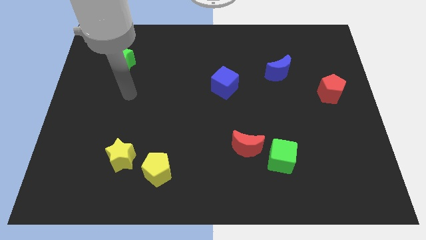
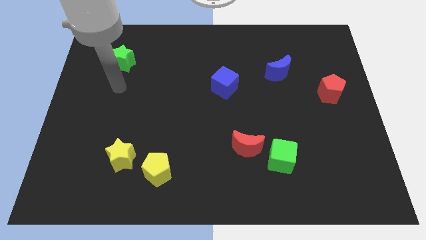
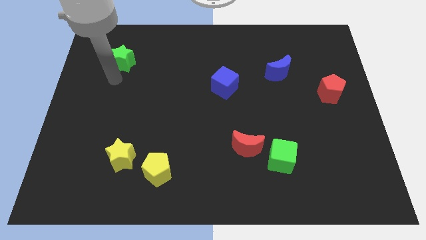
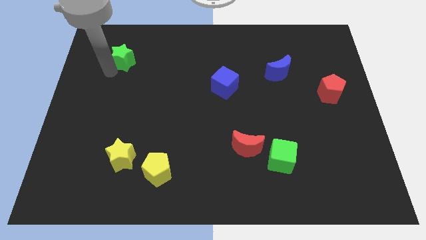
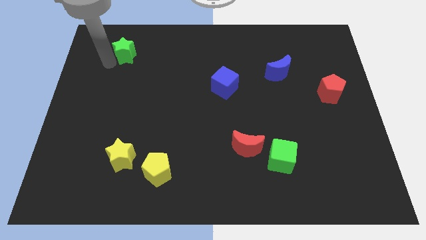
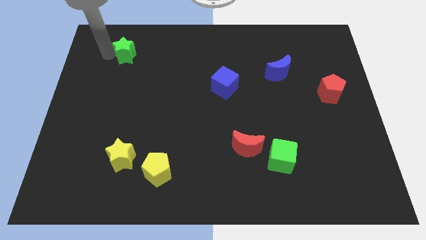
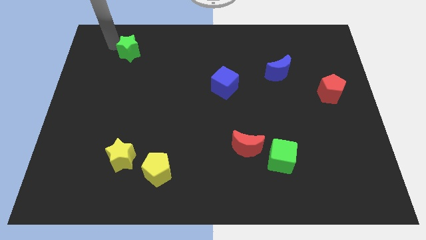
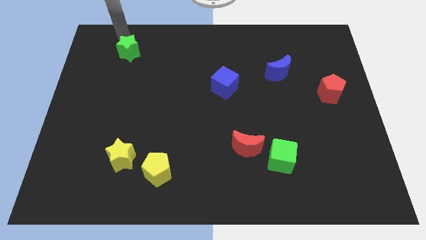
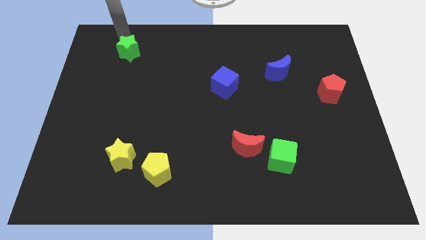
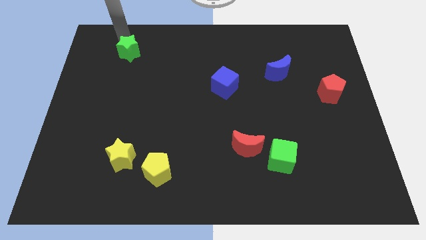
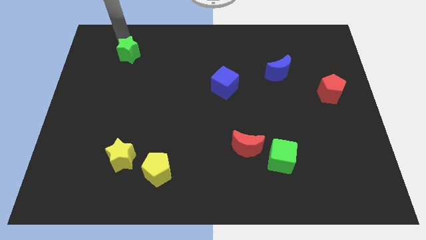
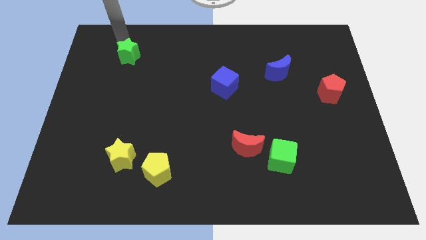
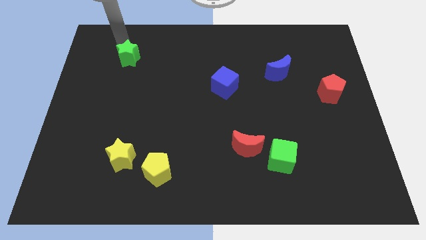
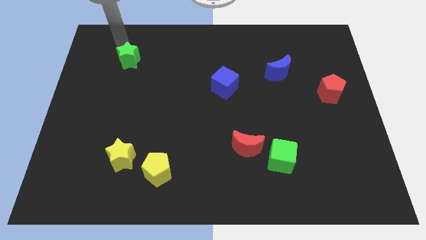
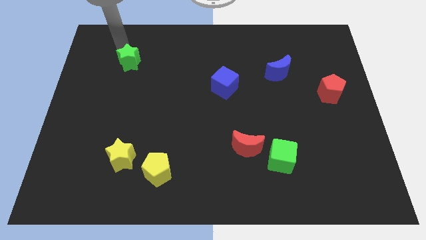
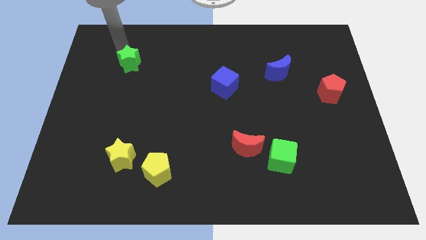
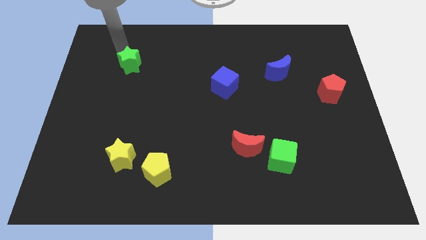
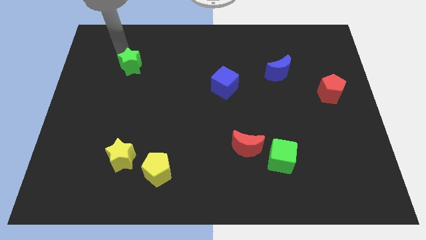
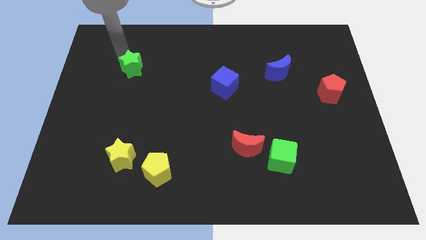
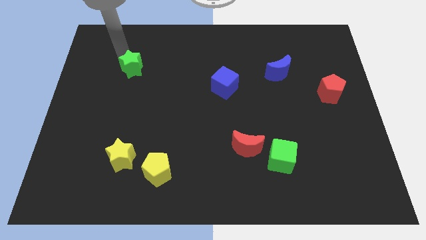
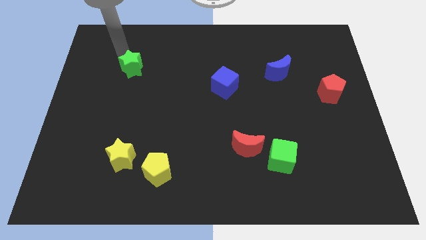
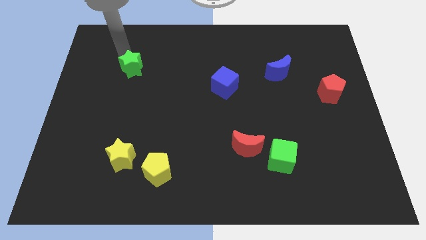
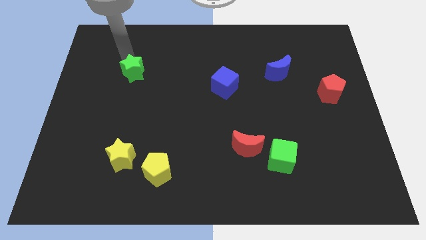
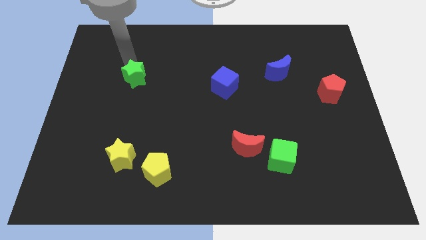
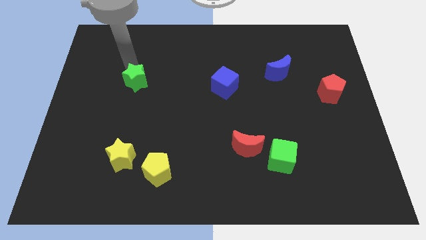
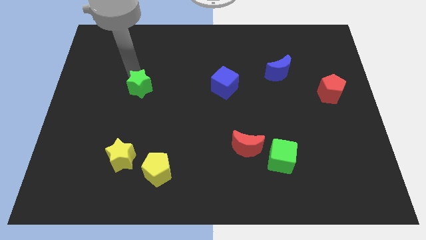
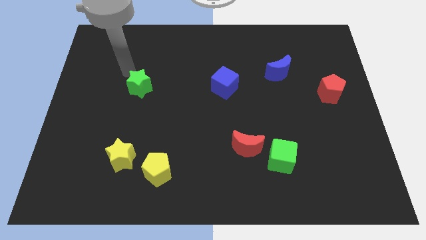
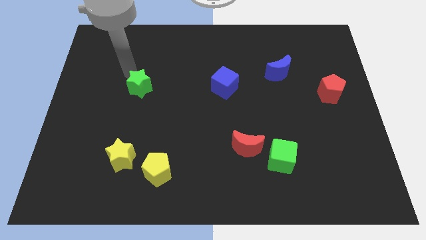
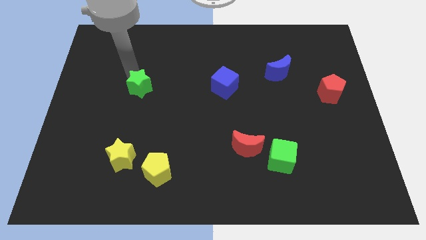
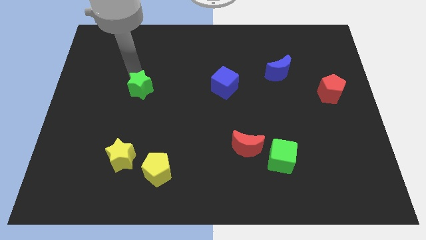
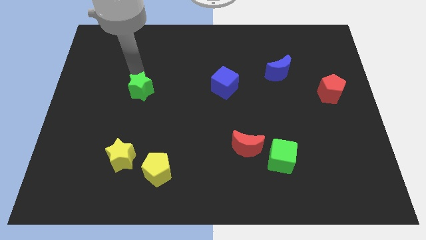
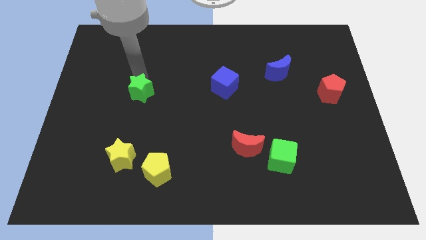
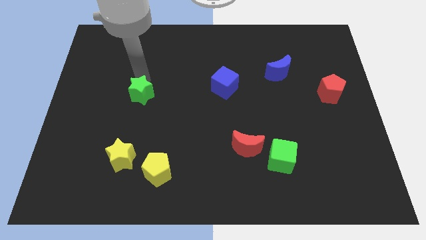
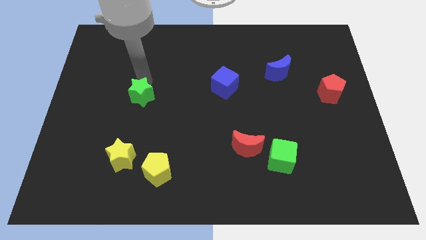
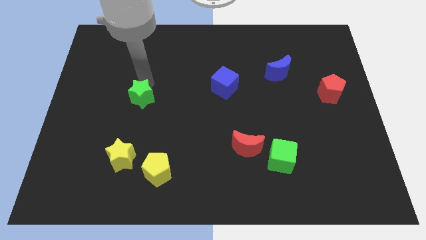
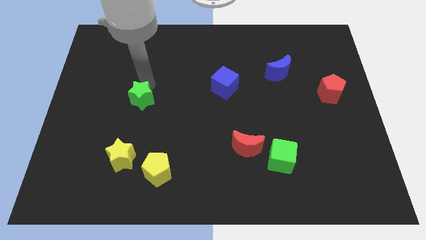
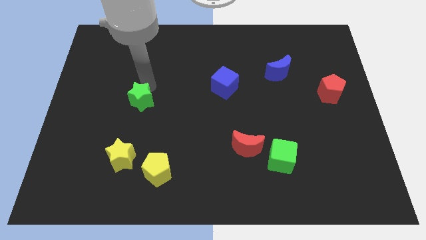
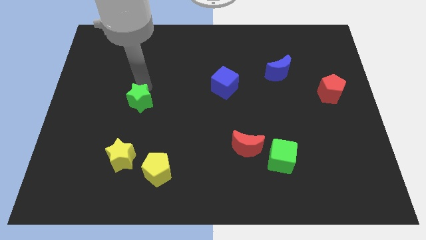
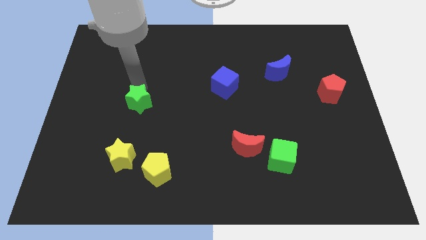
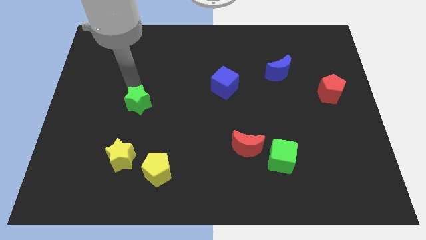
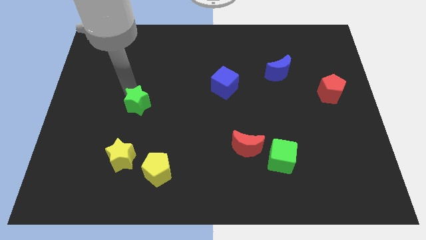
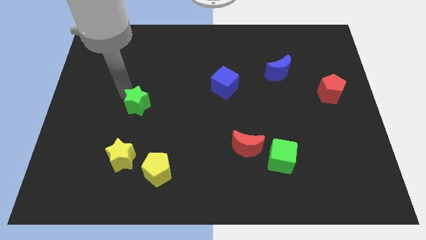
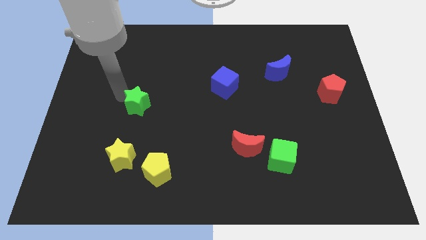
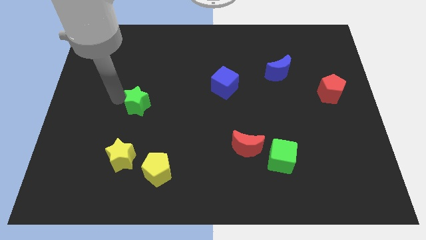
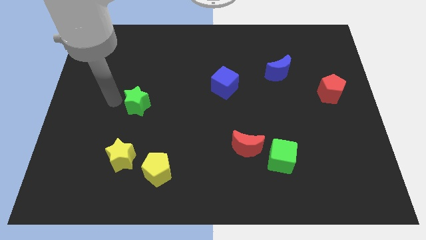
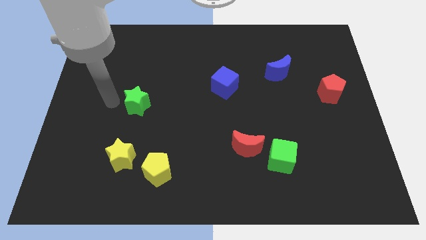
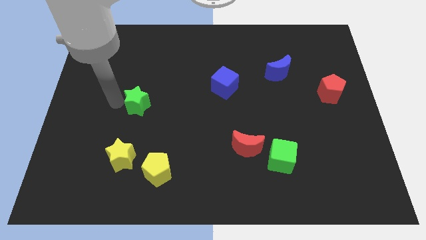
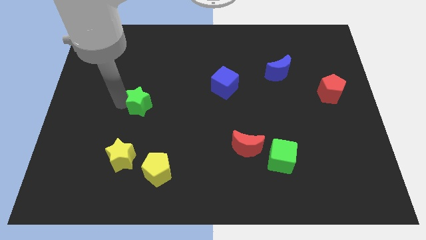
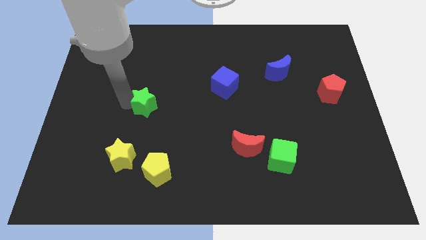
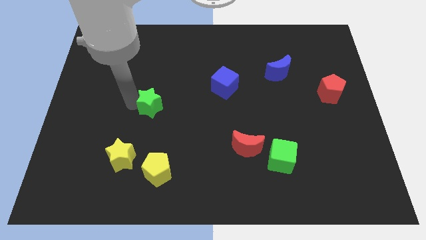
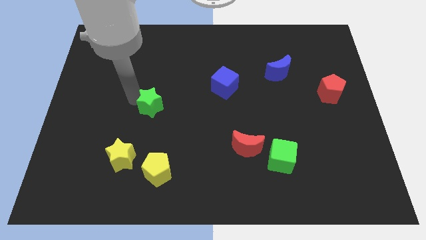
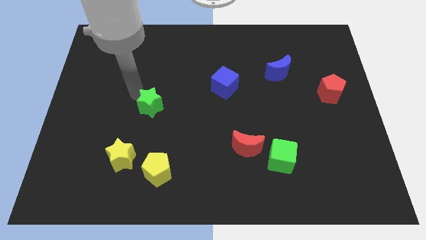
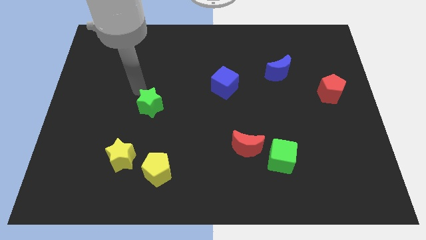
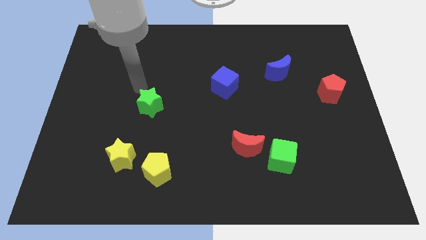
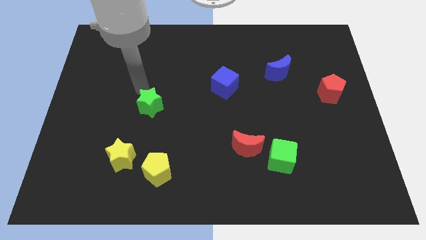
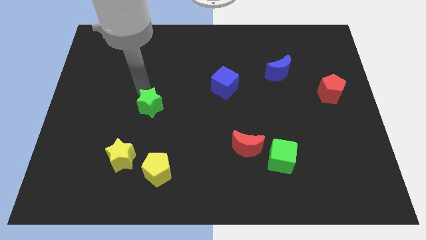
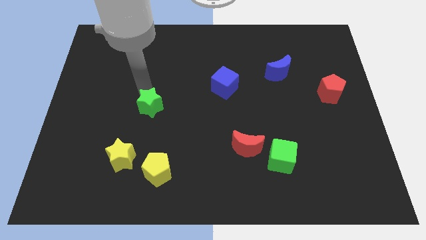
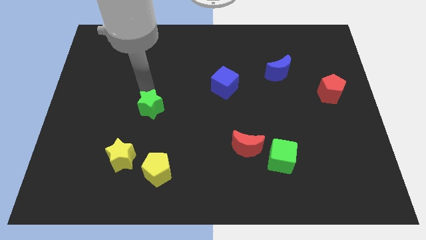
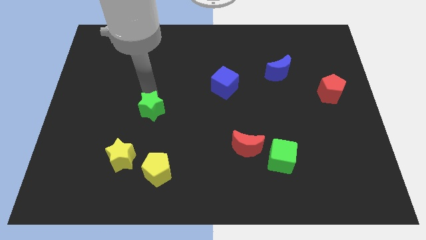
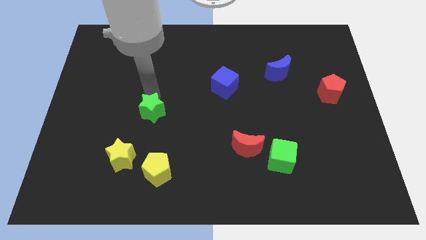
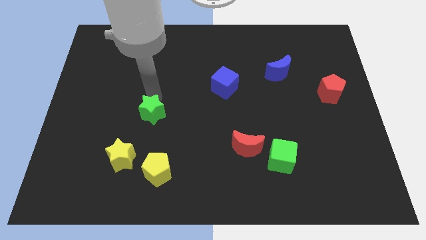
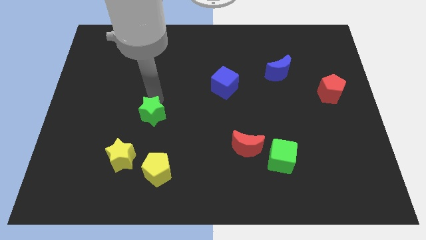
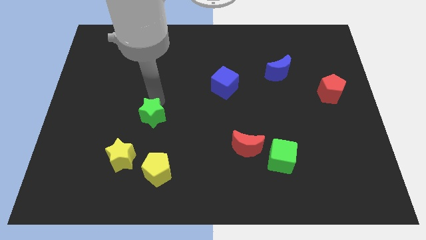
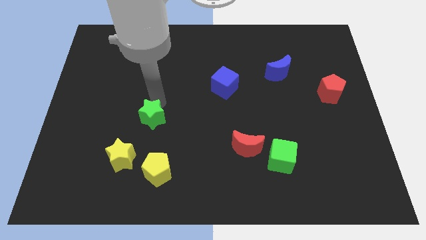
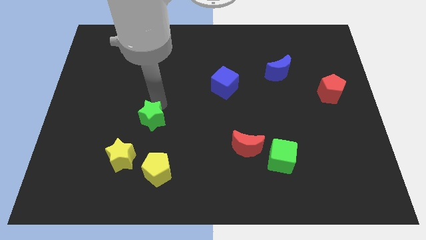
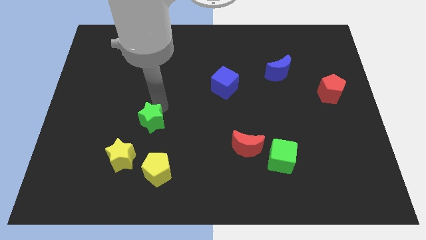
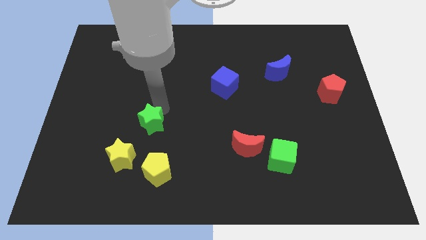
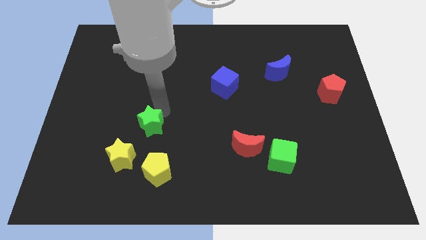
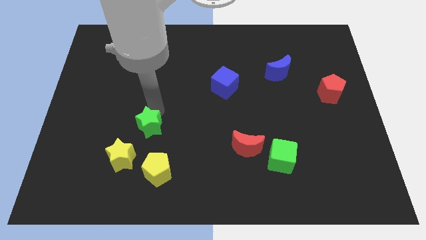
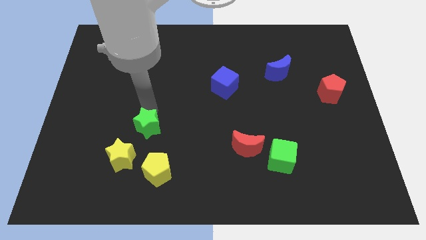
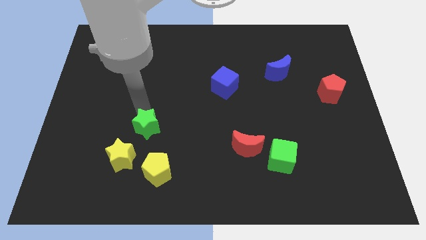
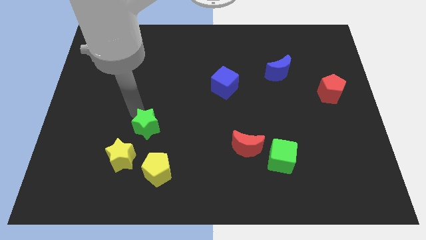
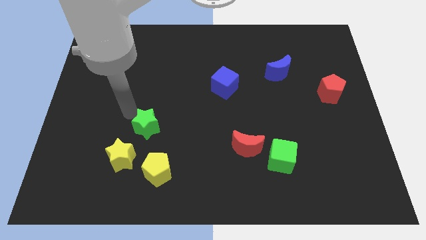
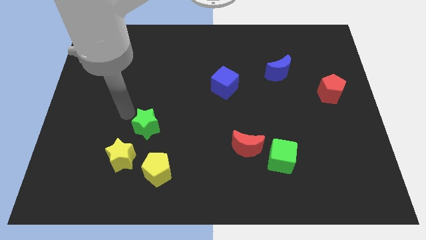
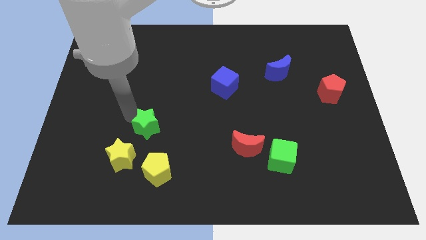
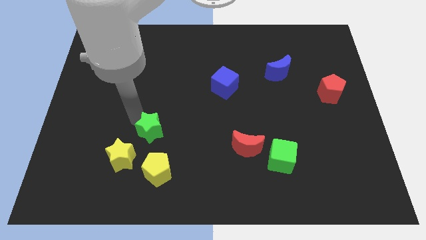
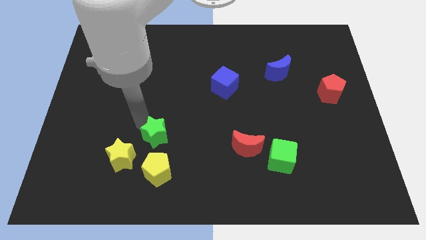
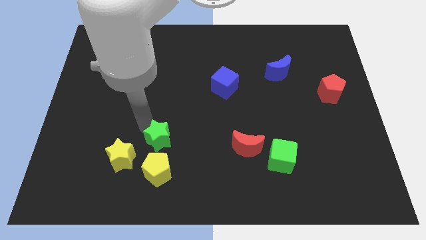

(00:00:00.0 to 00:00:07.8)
slide the green star just right of the yellow star
